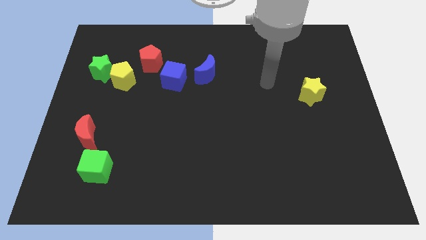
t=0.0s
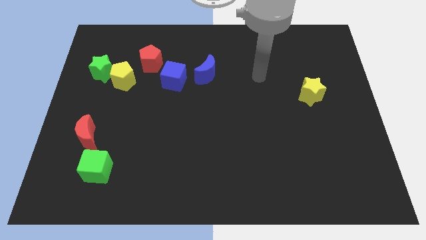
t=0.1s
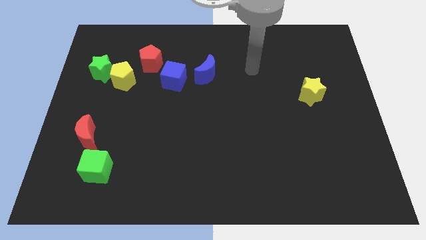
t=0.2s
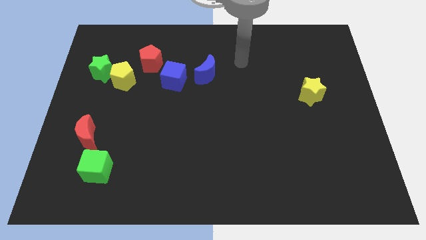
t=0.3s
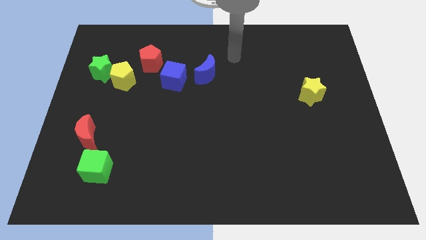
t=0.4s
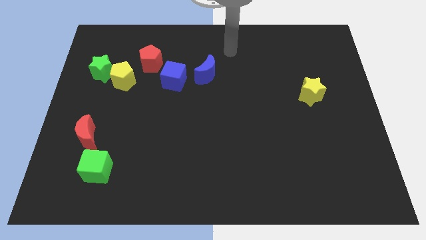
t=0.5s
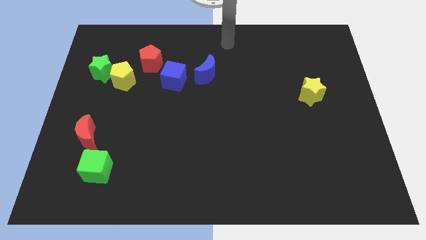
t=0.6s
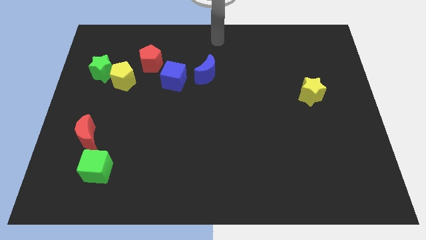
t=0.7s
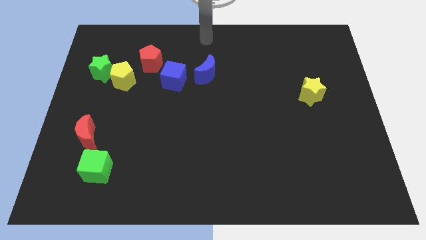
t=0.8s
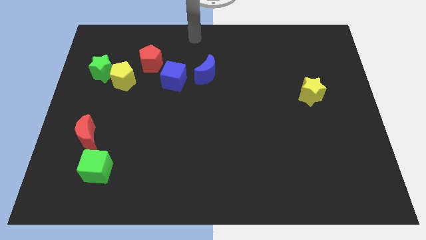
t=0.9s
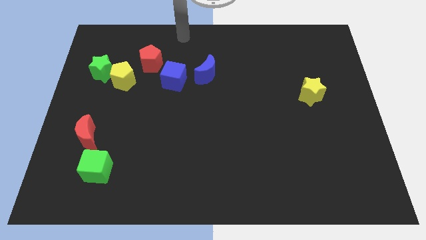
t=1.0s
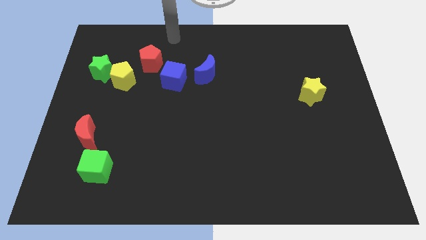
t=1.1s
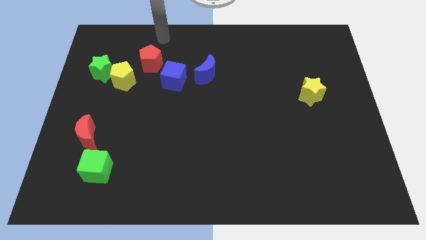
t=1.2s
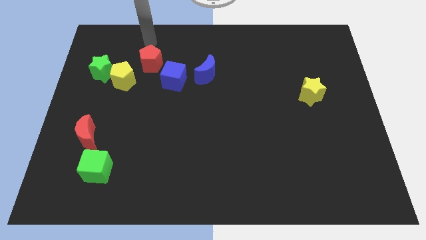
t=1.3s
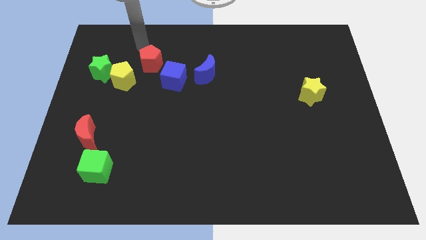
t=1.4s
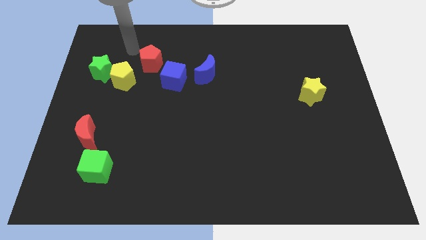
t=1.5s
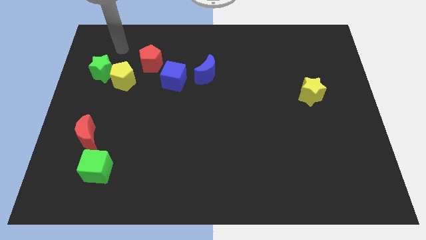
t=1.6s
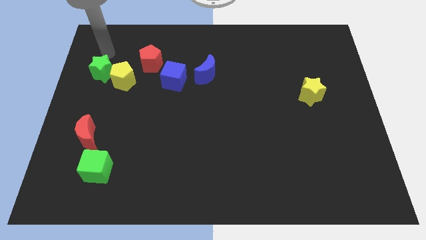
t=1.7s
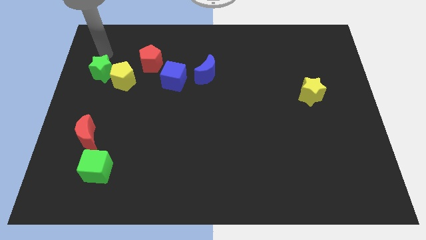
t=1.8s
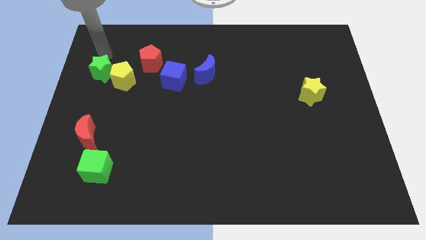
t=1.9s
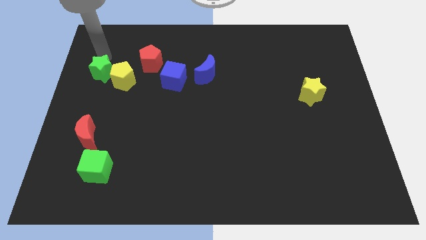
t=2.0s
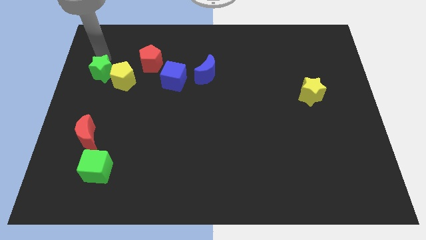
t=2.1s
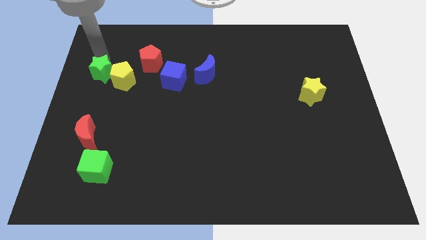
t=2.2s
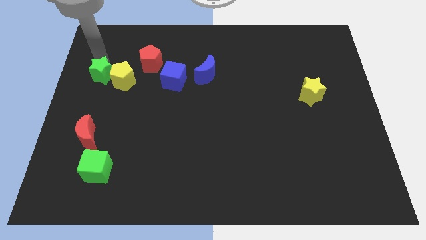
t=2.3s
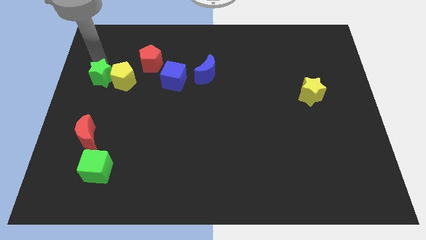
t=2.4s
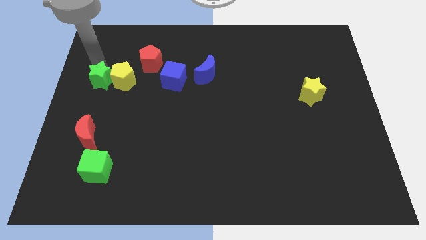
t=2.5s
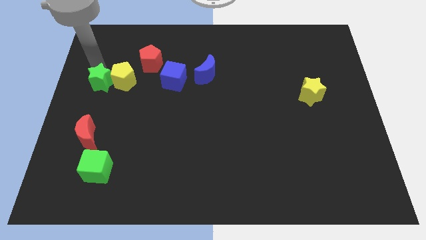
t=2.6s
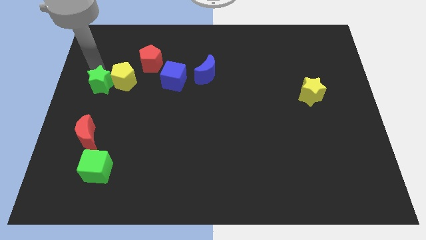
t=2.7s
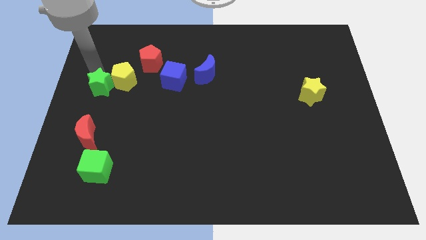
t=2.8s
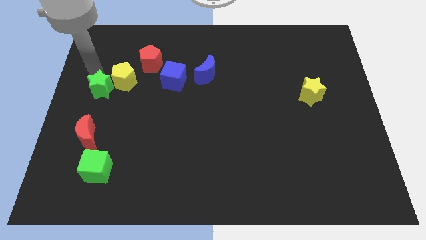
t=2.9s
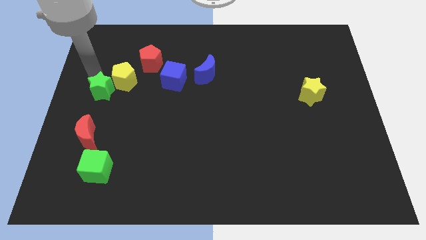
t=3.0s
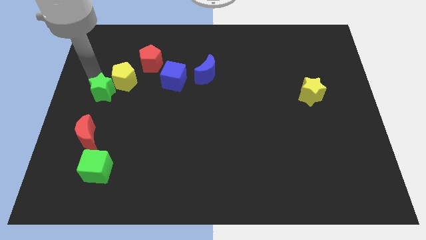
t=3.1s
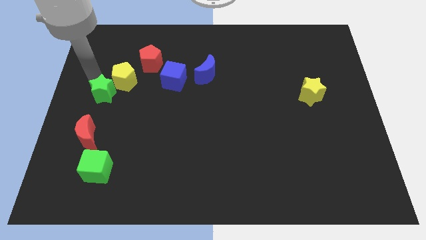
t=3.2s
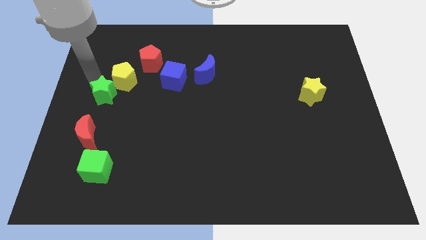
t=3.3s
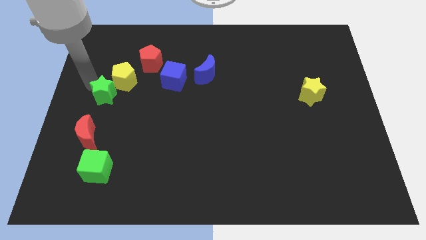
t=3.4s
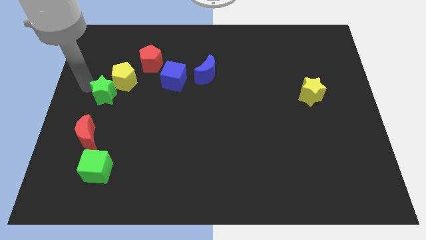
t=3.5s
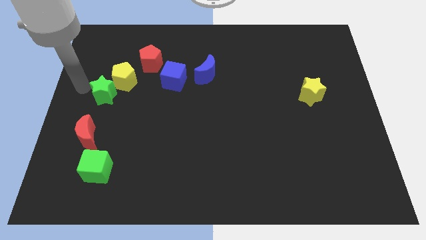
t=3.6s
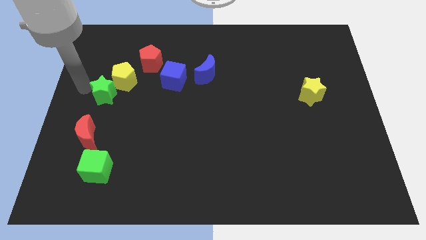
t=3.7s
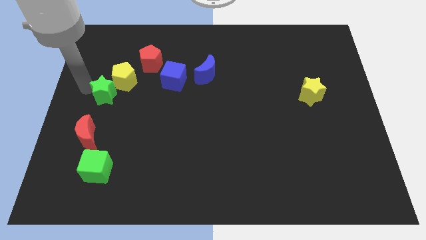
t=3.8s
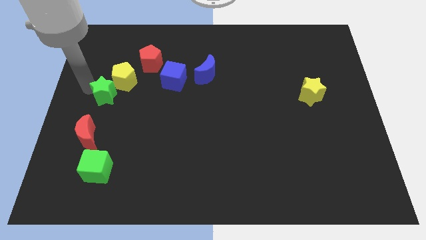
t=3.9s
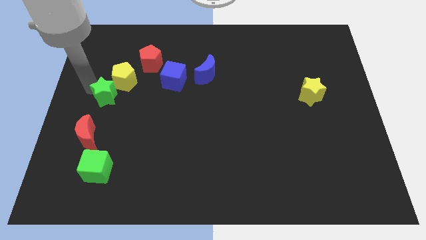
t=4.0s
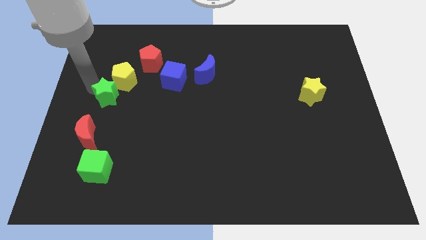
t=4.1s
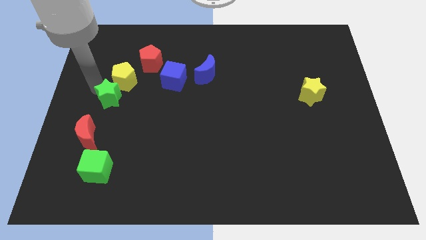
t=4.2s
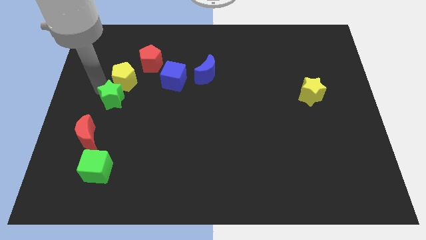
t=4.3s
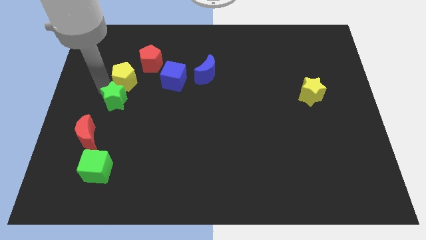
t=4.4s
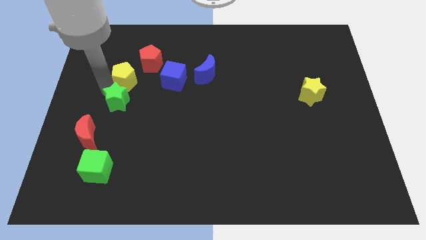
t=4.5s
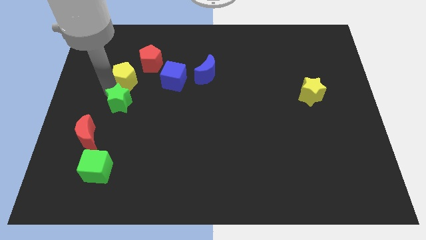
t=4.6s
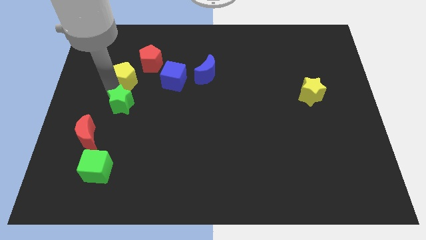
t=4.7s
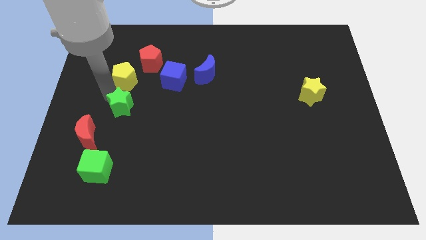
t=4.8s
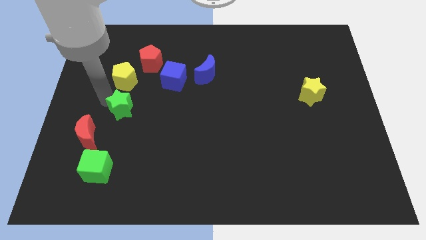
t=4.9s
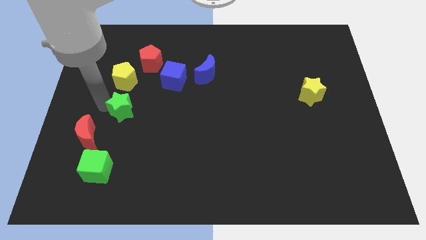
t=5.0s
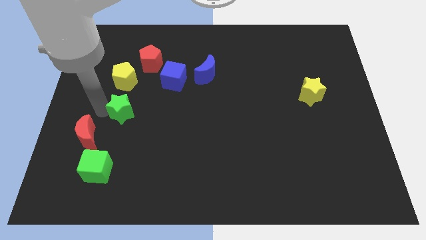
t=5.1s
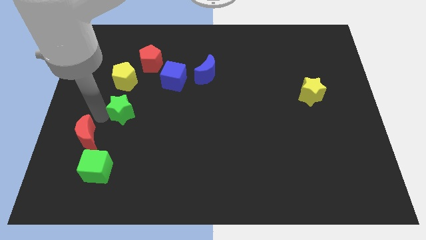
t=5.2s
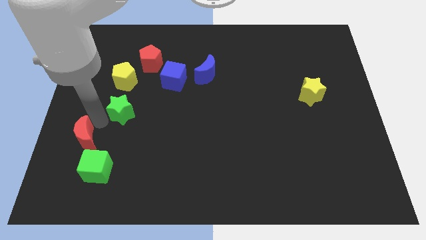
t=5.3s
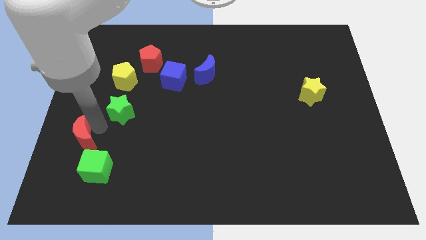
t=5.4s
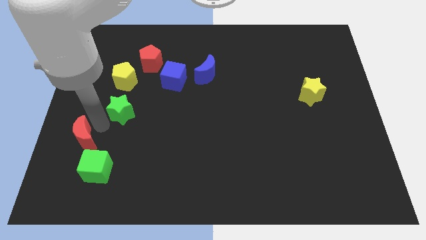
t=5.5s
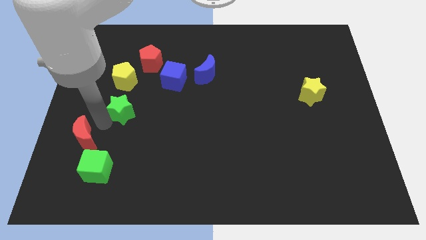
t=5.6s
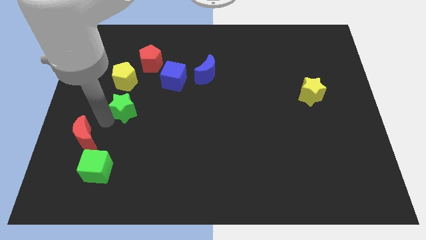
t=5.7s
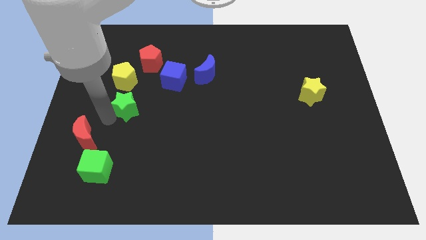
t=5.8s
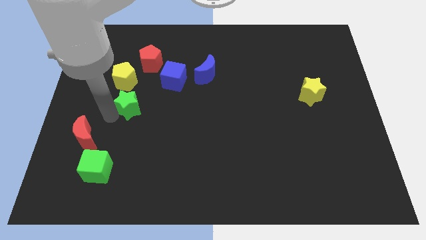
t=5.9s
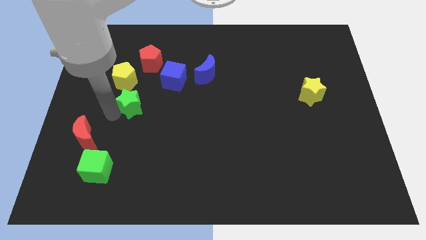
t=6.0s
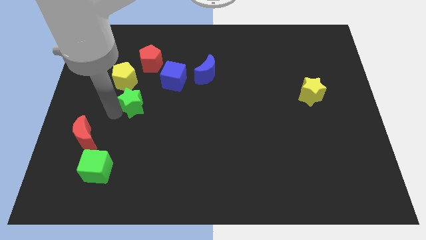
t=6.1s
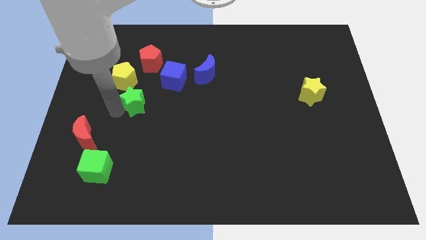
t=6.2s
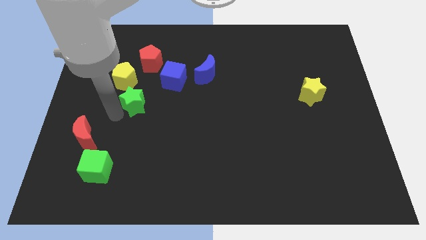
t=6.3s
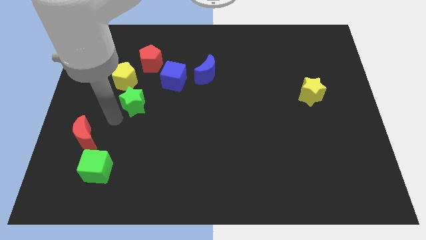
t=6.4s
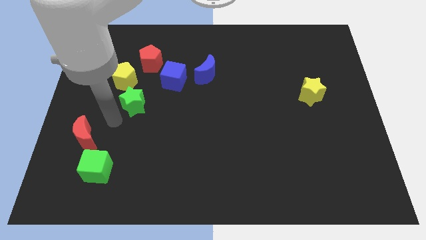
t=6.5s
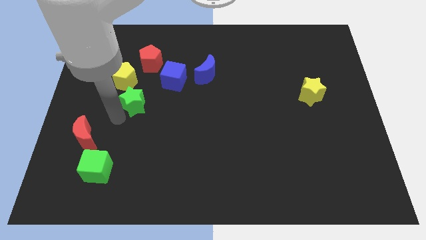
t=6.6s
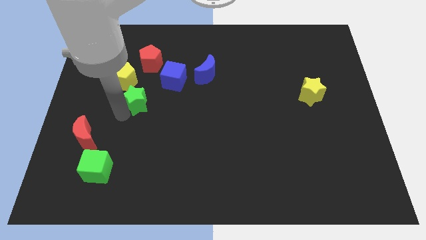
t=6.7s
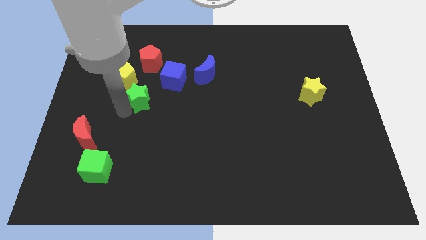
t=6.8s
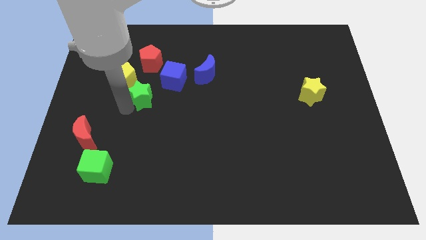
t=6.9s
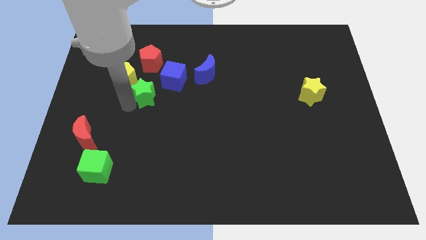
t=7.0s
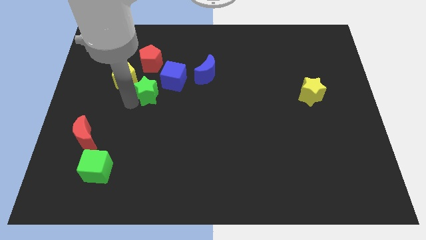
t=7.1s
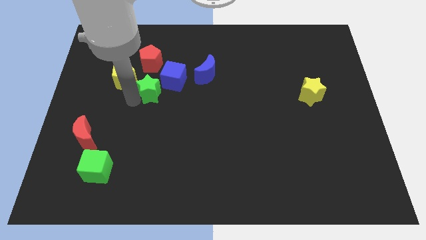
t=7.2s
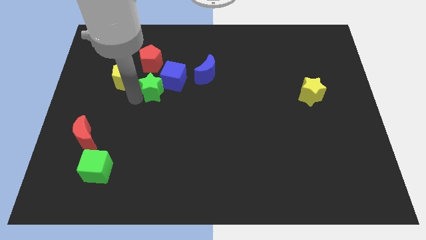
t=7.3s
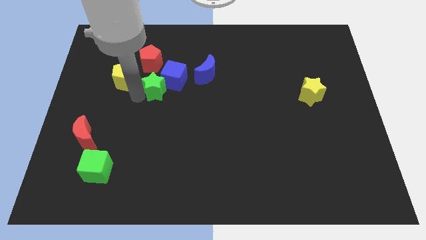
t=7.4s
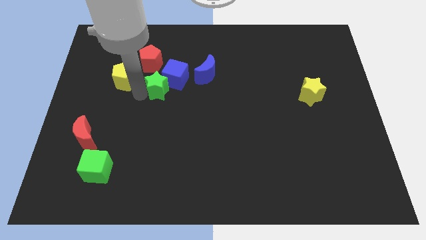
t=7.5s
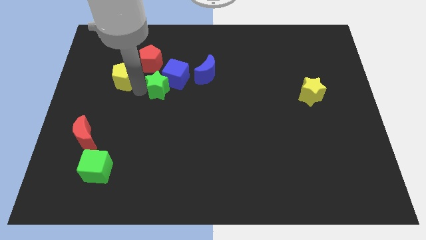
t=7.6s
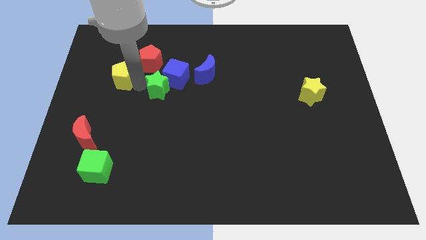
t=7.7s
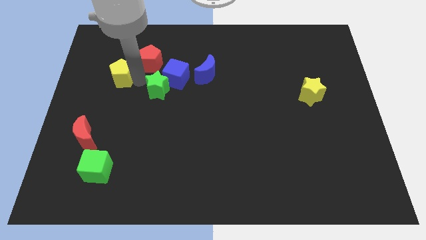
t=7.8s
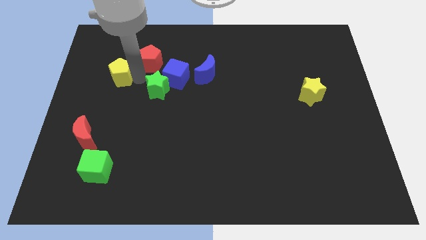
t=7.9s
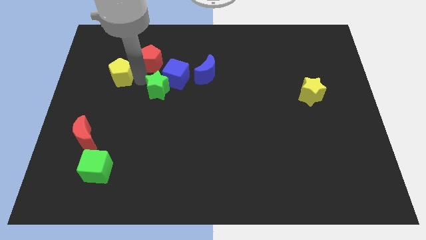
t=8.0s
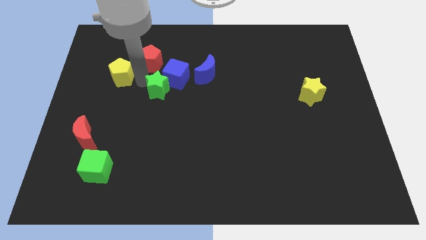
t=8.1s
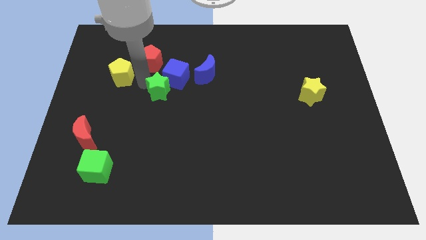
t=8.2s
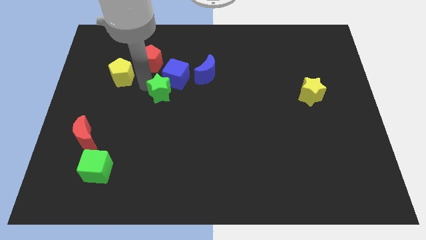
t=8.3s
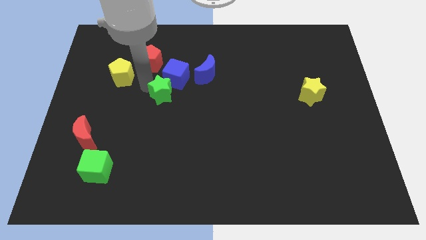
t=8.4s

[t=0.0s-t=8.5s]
put the green star to the middle
